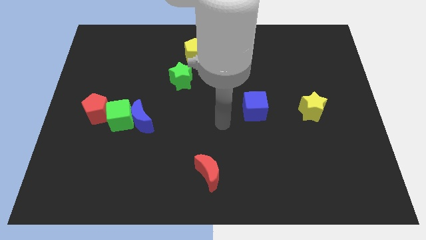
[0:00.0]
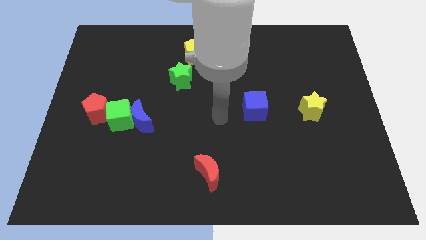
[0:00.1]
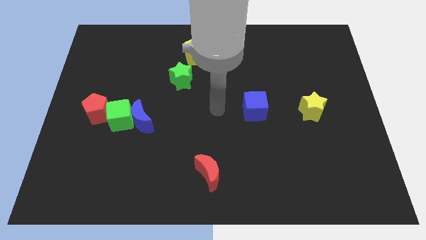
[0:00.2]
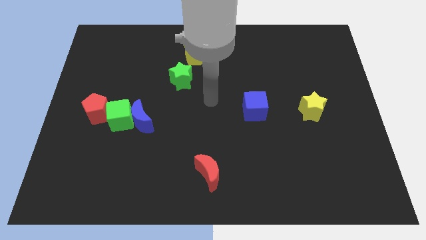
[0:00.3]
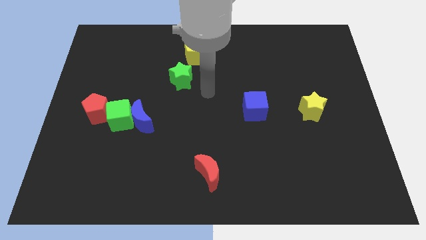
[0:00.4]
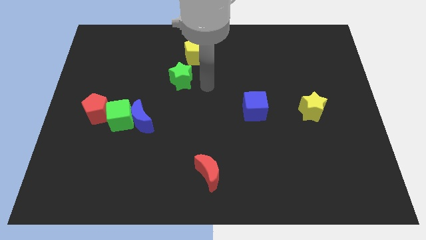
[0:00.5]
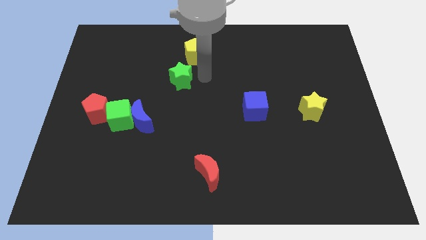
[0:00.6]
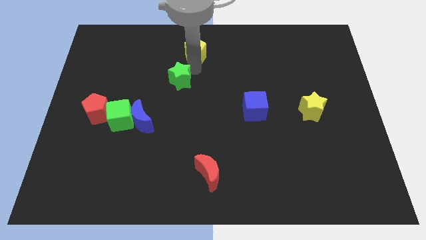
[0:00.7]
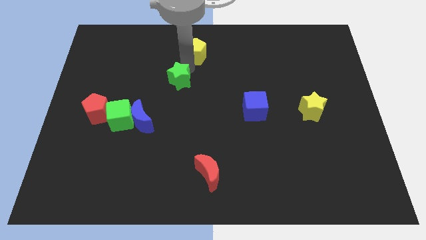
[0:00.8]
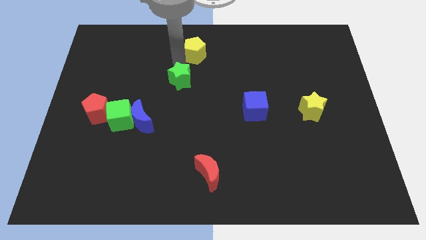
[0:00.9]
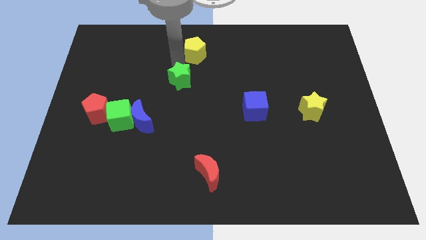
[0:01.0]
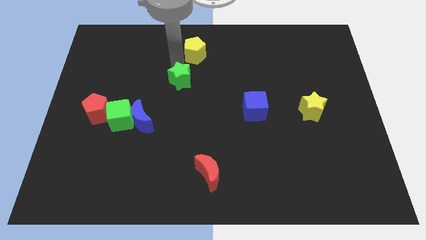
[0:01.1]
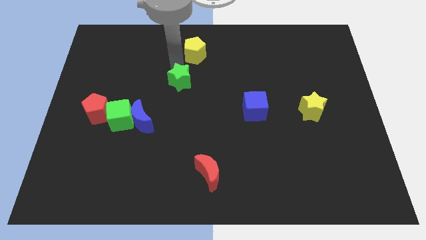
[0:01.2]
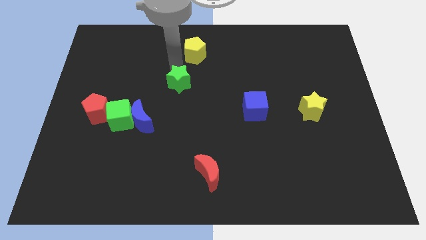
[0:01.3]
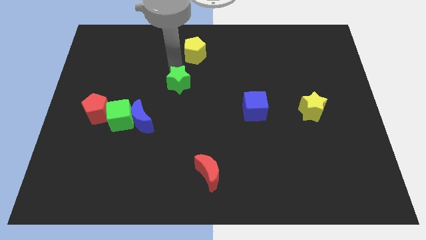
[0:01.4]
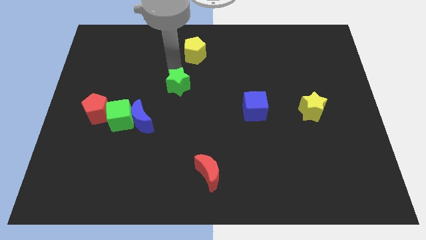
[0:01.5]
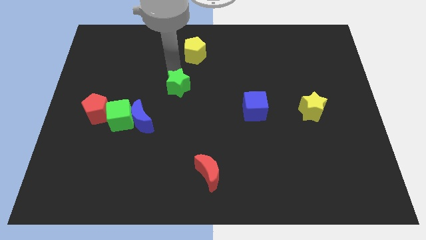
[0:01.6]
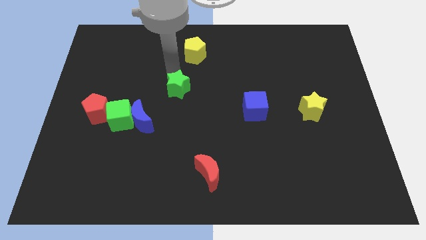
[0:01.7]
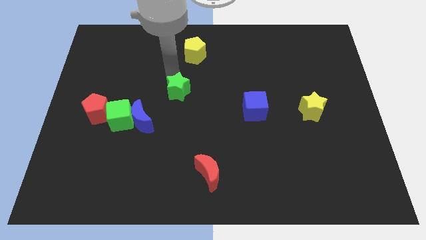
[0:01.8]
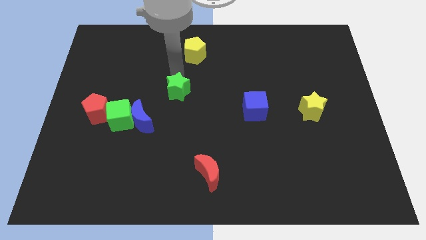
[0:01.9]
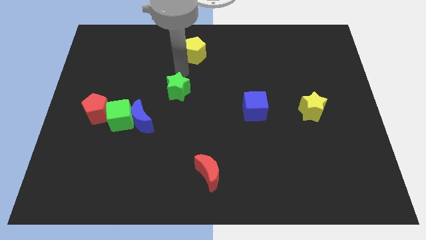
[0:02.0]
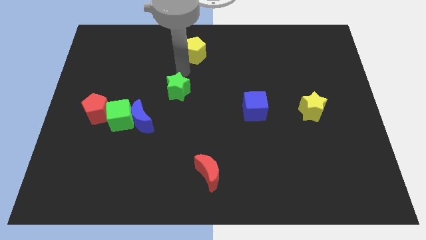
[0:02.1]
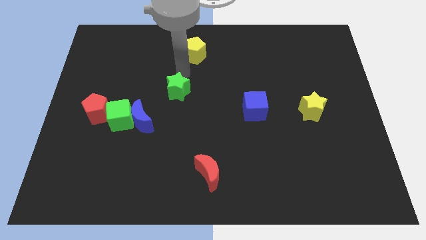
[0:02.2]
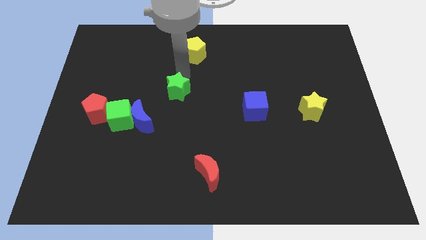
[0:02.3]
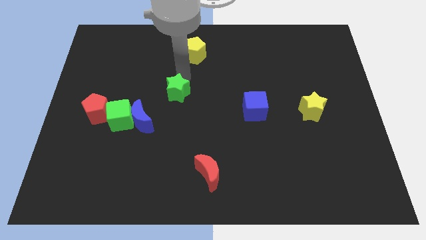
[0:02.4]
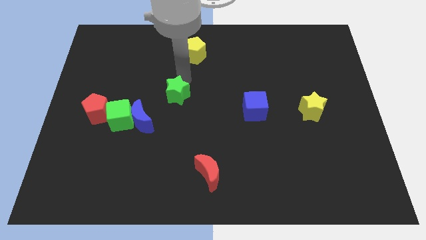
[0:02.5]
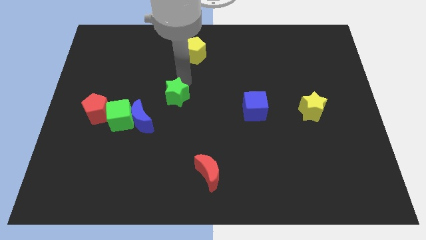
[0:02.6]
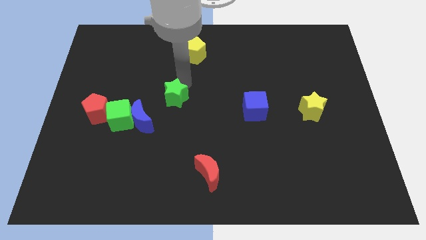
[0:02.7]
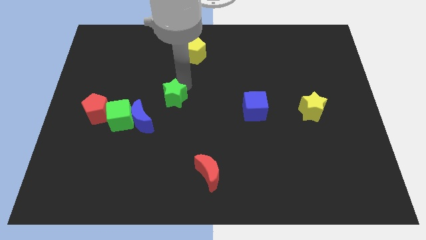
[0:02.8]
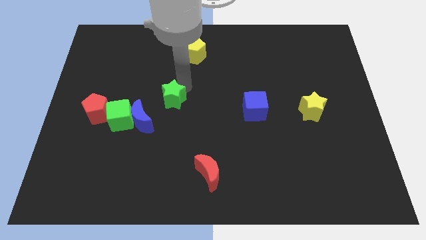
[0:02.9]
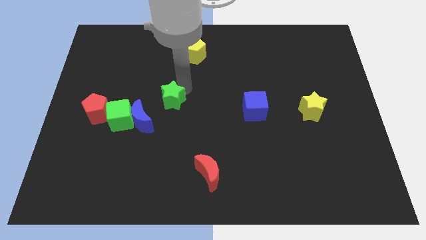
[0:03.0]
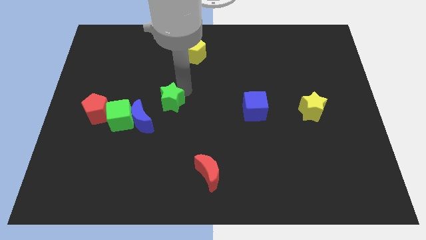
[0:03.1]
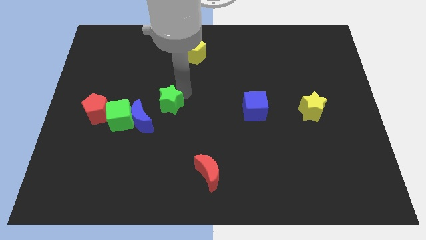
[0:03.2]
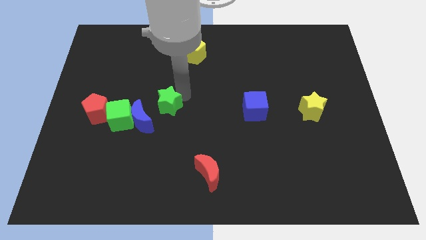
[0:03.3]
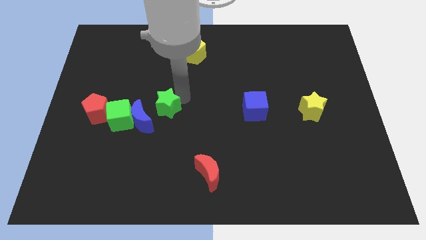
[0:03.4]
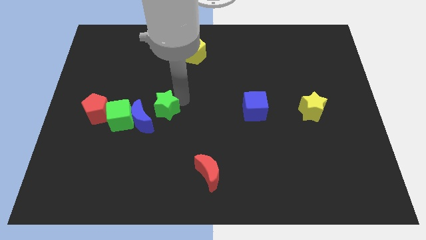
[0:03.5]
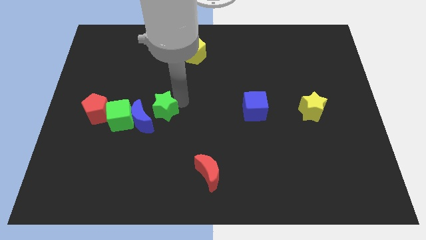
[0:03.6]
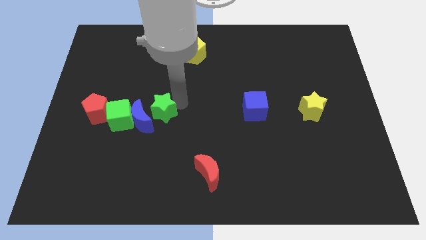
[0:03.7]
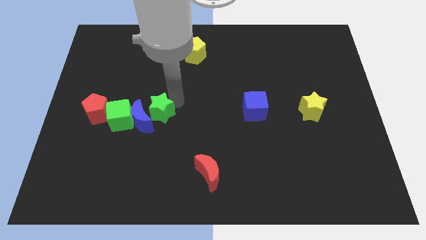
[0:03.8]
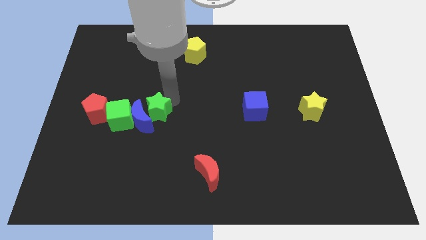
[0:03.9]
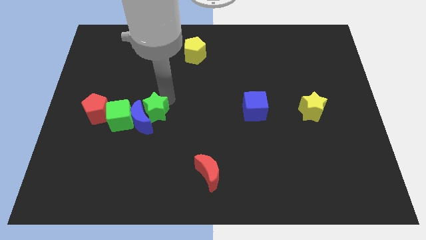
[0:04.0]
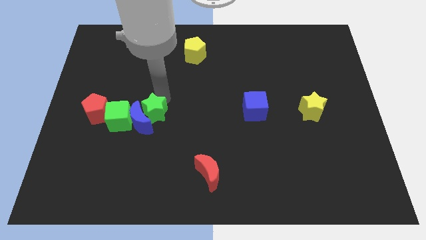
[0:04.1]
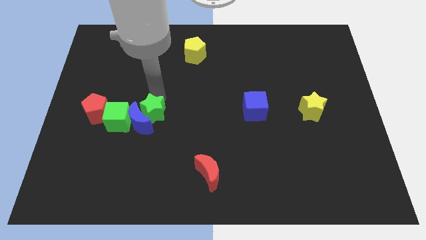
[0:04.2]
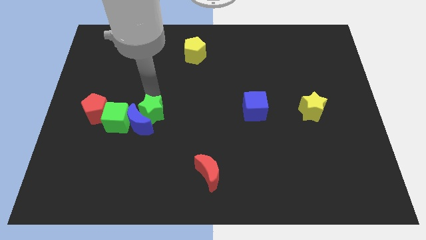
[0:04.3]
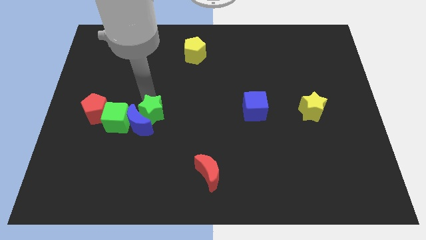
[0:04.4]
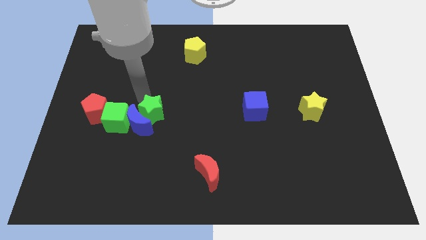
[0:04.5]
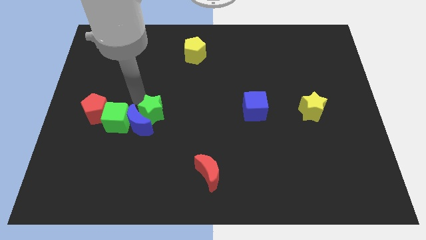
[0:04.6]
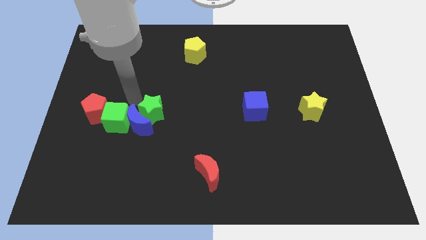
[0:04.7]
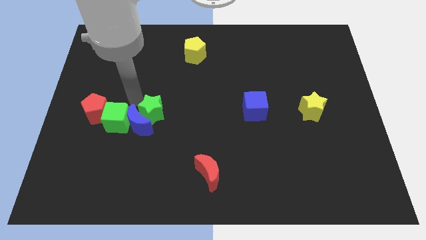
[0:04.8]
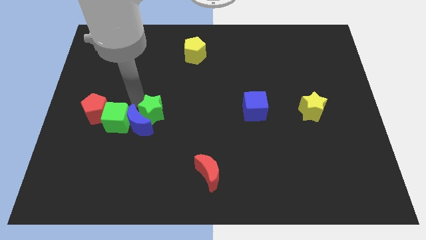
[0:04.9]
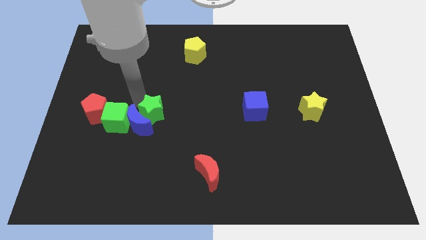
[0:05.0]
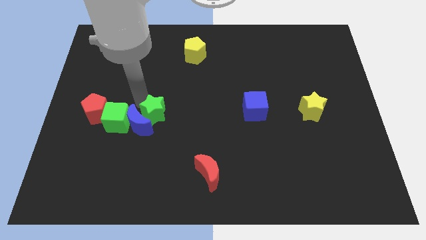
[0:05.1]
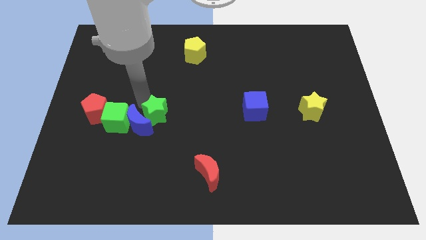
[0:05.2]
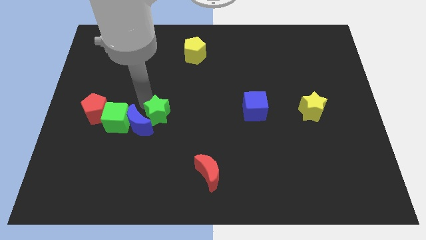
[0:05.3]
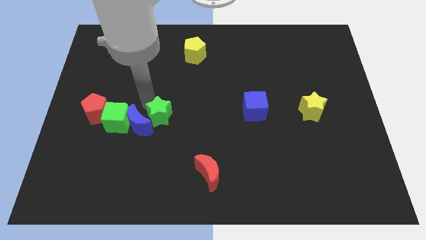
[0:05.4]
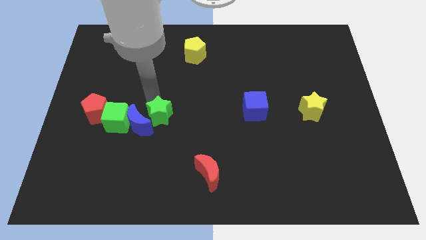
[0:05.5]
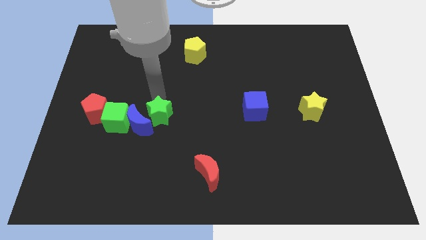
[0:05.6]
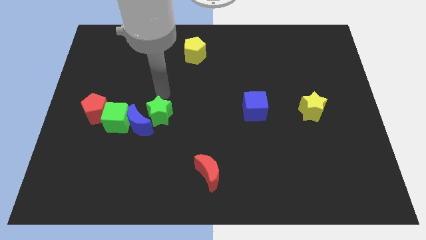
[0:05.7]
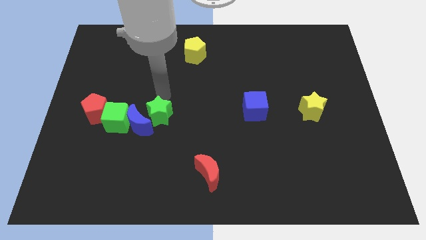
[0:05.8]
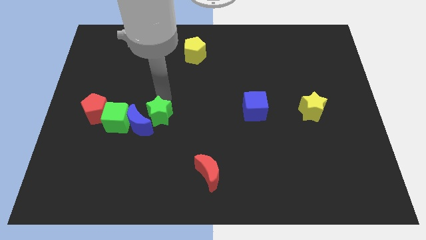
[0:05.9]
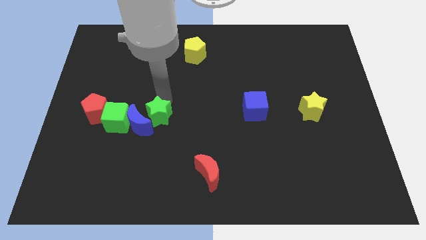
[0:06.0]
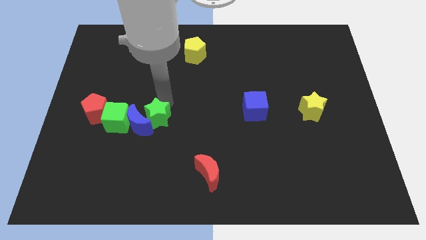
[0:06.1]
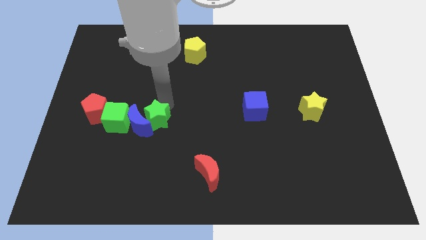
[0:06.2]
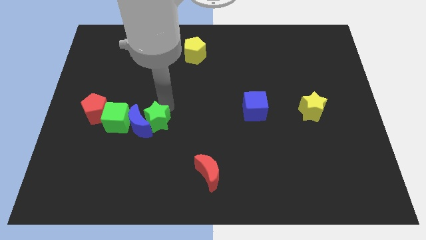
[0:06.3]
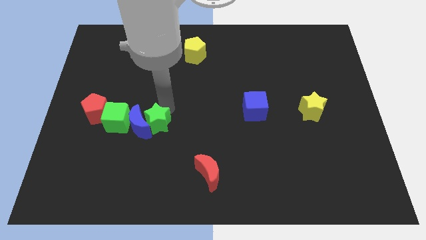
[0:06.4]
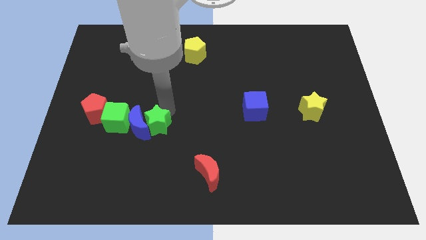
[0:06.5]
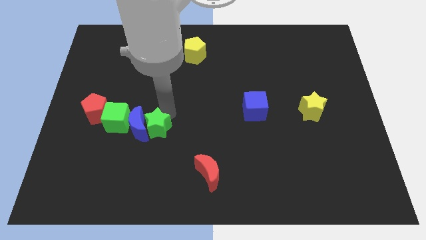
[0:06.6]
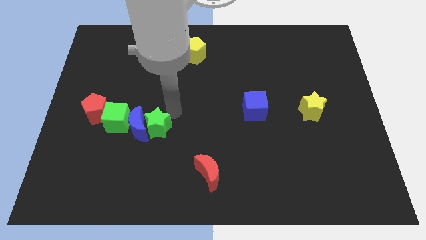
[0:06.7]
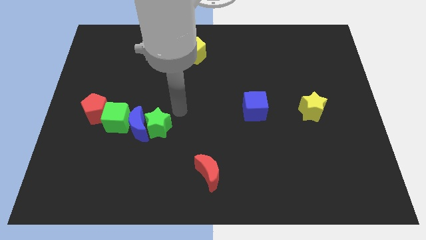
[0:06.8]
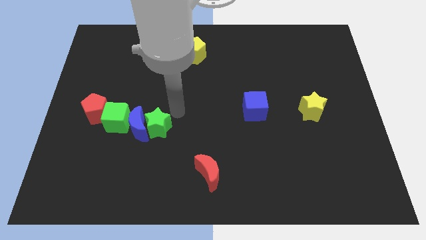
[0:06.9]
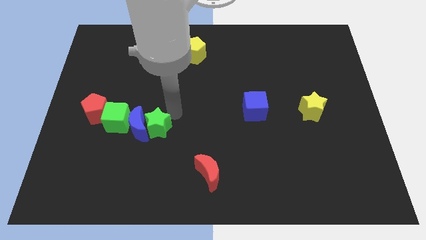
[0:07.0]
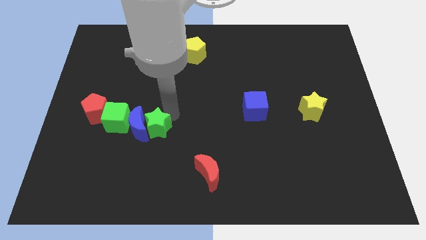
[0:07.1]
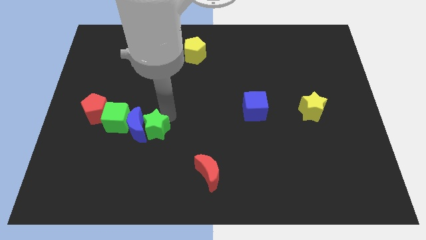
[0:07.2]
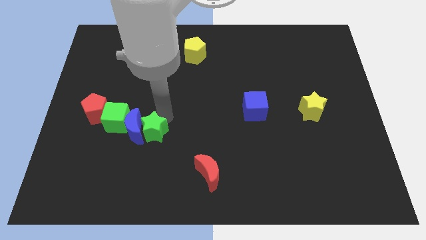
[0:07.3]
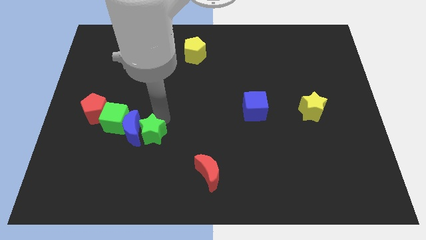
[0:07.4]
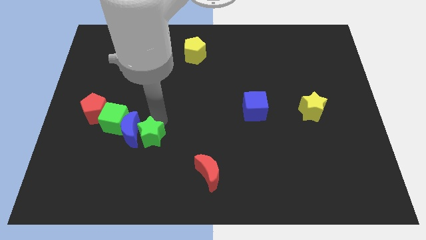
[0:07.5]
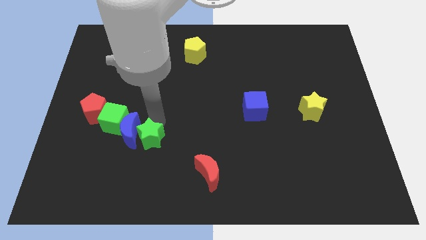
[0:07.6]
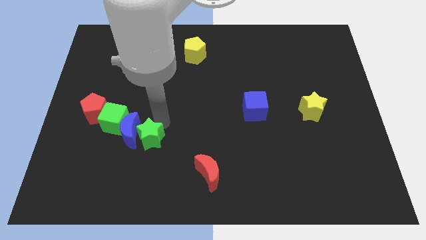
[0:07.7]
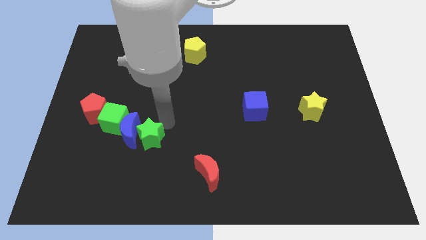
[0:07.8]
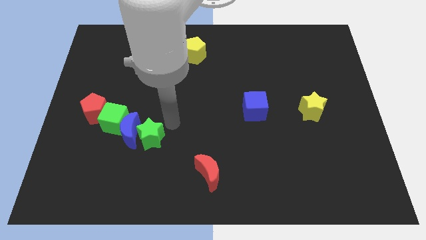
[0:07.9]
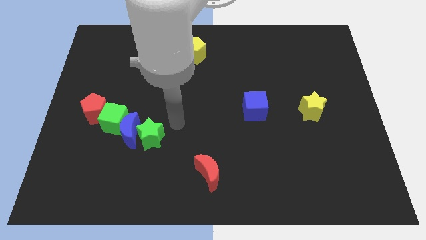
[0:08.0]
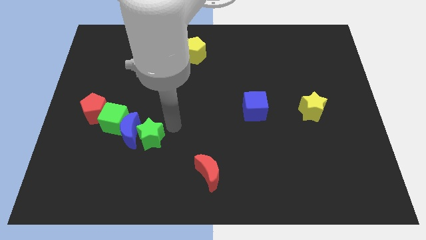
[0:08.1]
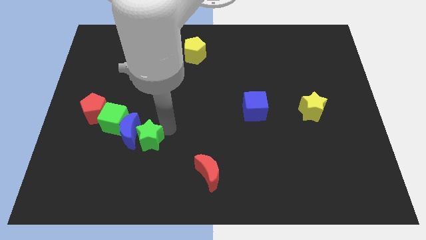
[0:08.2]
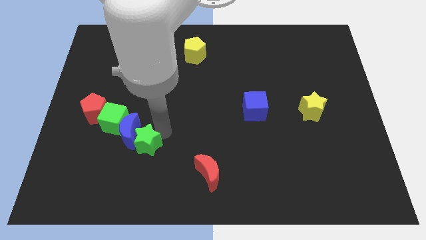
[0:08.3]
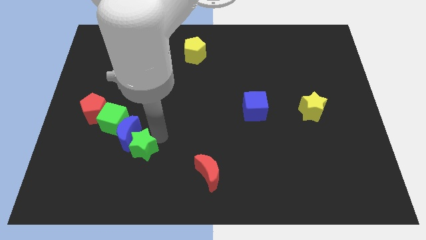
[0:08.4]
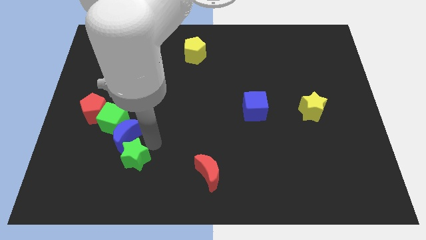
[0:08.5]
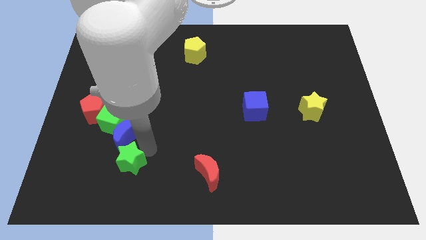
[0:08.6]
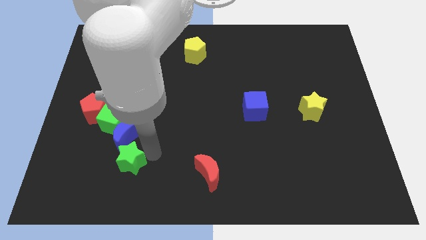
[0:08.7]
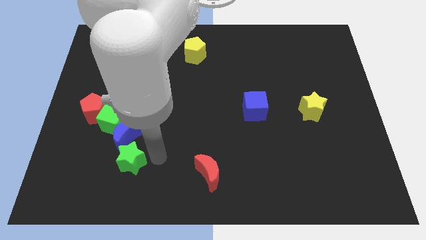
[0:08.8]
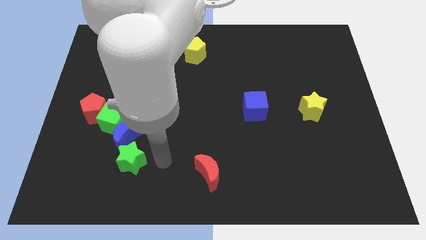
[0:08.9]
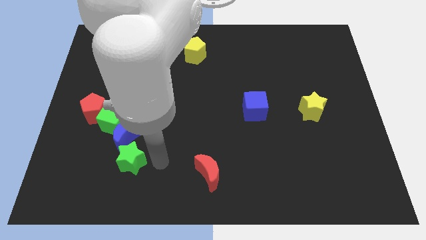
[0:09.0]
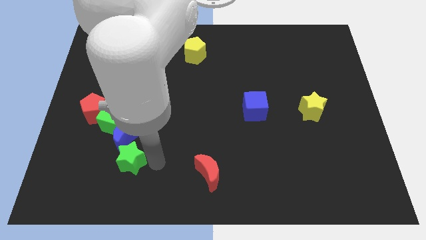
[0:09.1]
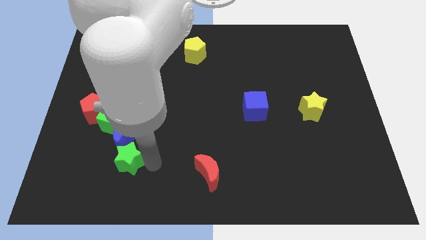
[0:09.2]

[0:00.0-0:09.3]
push the green star below the green cube
